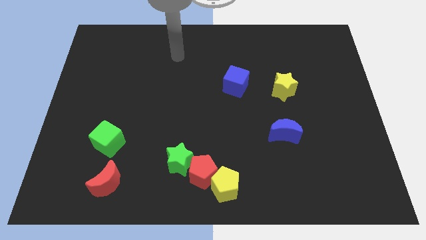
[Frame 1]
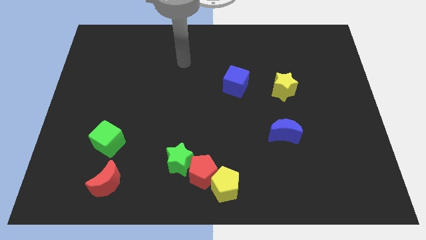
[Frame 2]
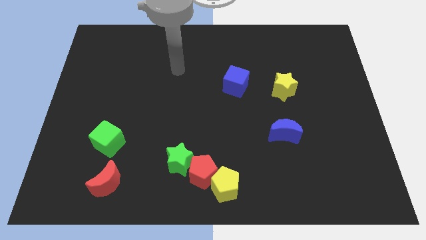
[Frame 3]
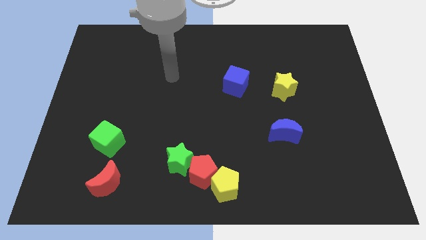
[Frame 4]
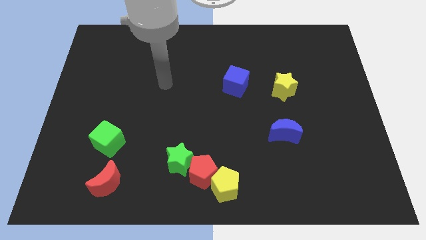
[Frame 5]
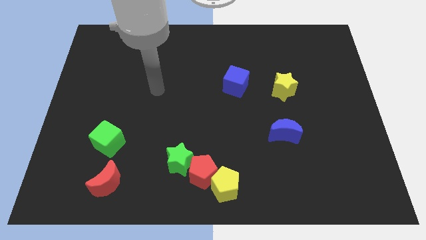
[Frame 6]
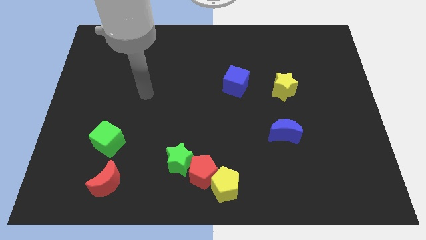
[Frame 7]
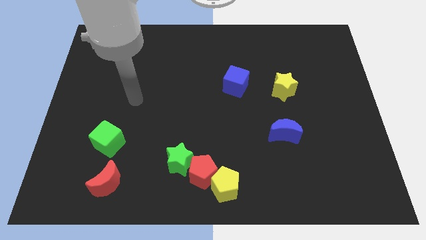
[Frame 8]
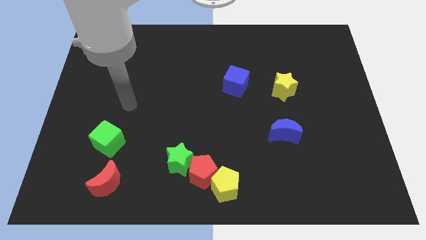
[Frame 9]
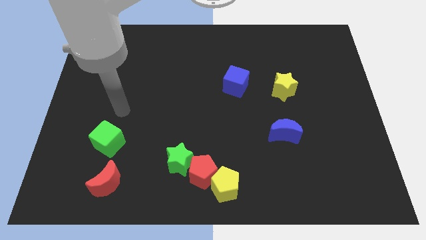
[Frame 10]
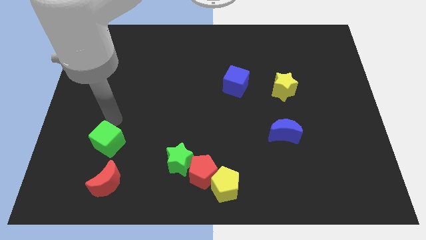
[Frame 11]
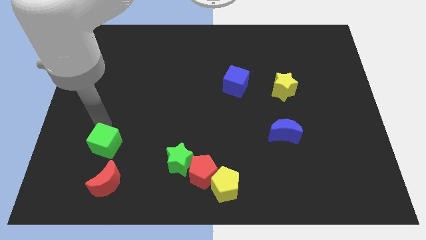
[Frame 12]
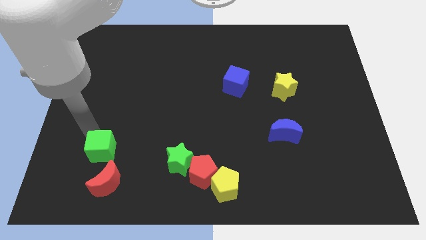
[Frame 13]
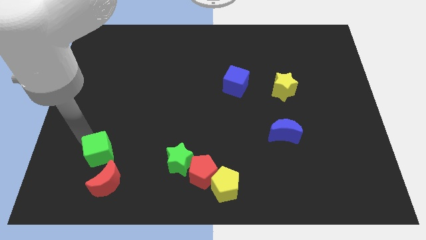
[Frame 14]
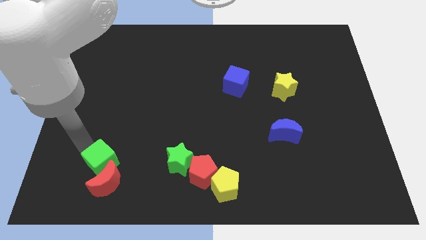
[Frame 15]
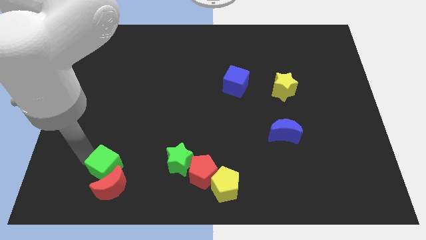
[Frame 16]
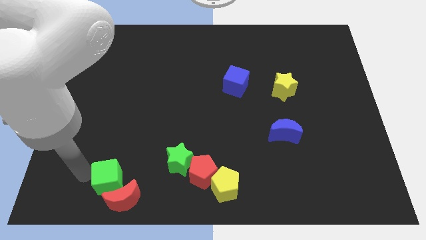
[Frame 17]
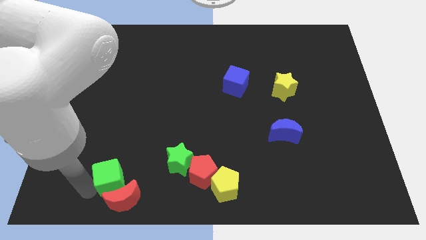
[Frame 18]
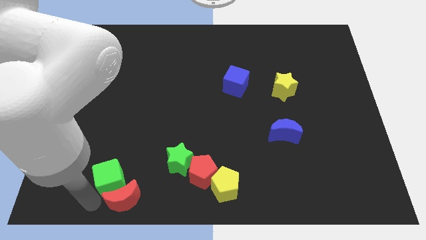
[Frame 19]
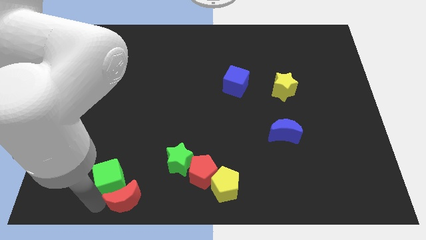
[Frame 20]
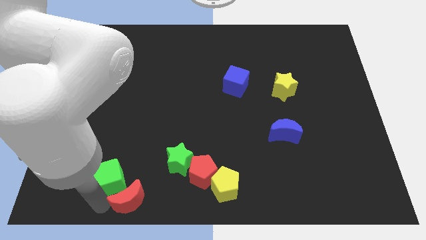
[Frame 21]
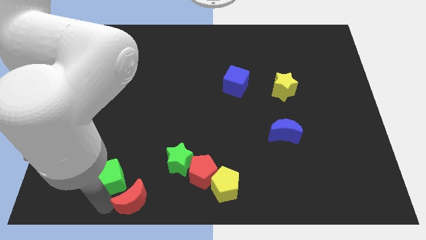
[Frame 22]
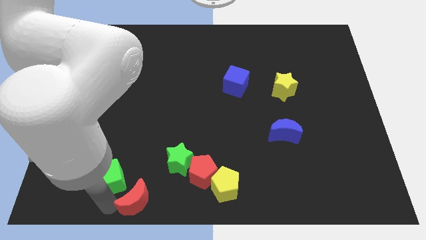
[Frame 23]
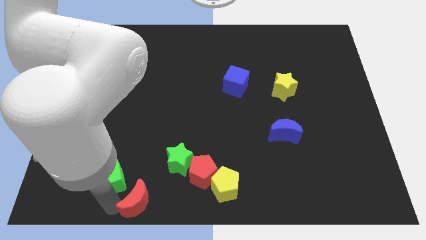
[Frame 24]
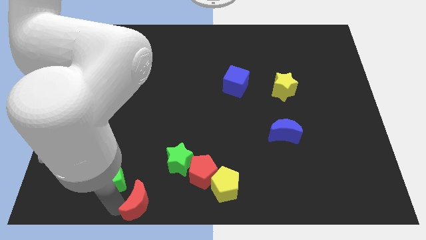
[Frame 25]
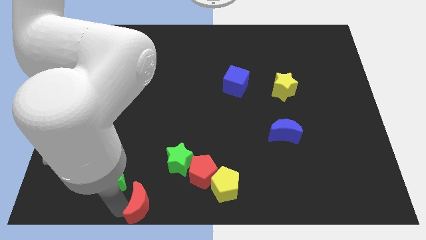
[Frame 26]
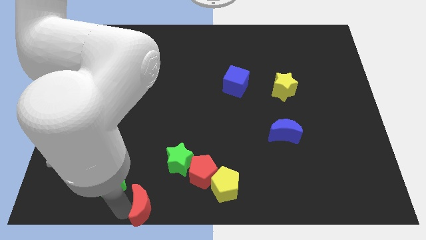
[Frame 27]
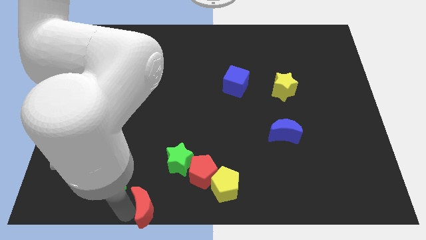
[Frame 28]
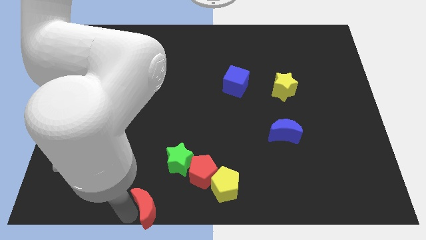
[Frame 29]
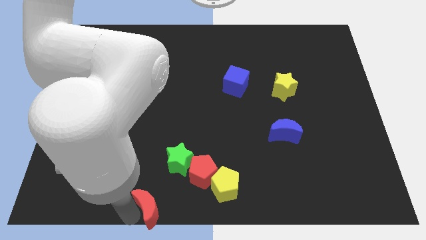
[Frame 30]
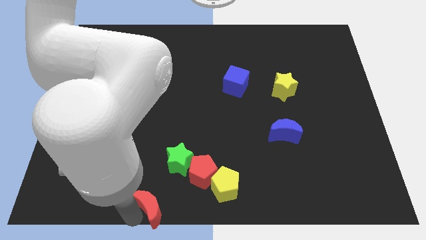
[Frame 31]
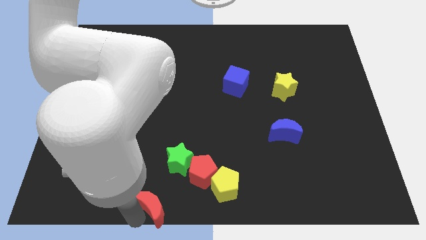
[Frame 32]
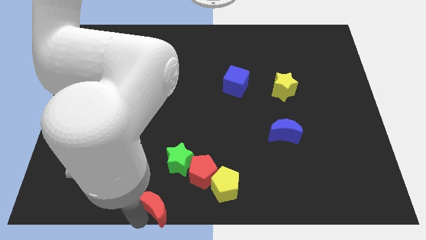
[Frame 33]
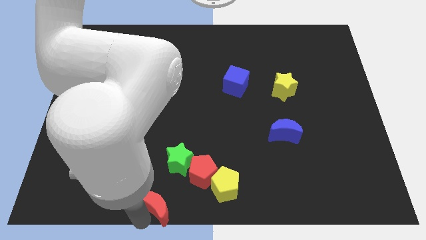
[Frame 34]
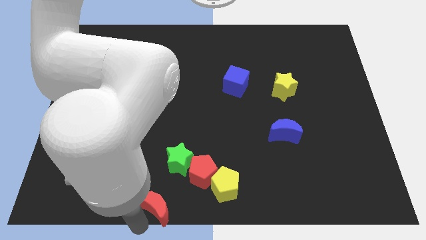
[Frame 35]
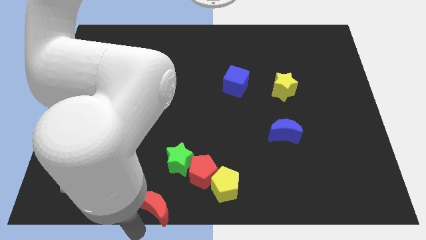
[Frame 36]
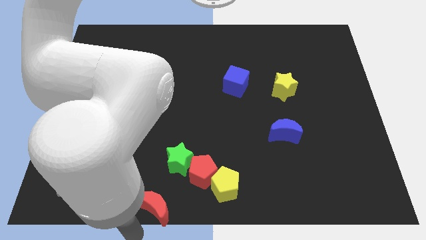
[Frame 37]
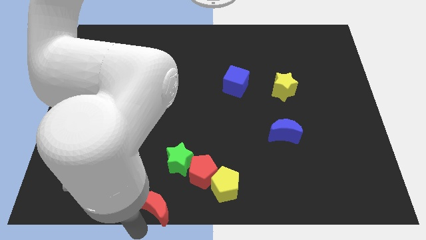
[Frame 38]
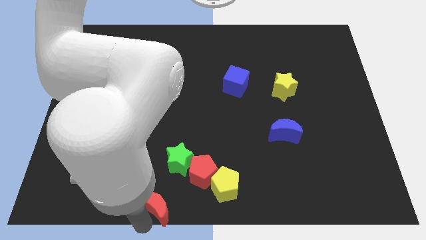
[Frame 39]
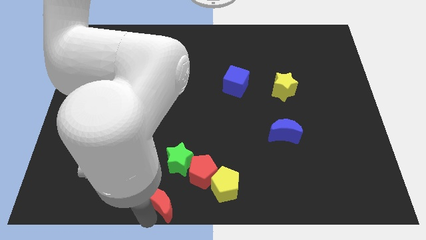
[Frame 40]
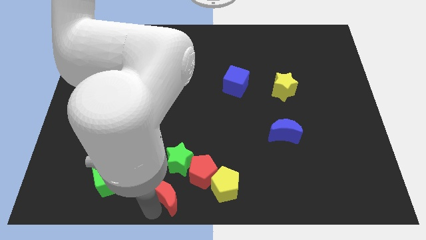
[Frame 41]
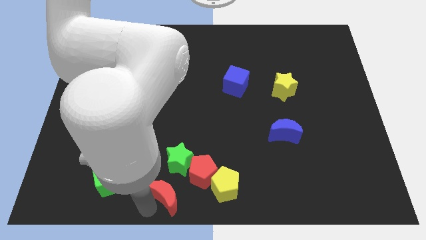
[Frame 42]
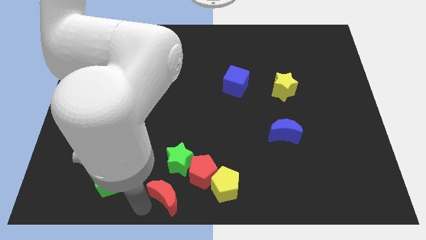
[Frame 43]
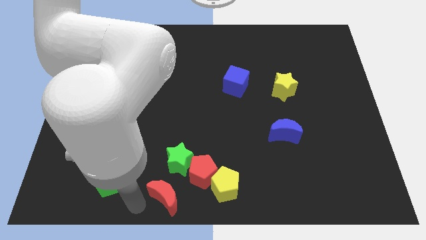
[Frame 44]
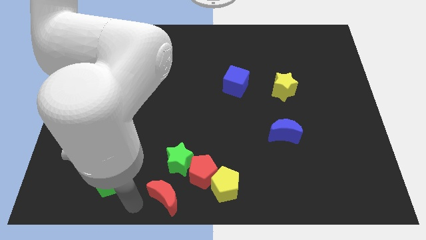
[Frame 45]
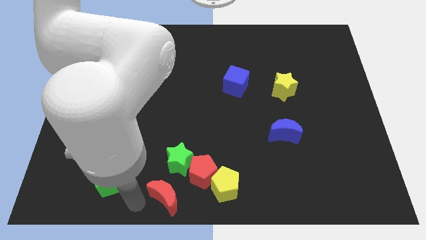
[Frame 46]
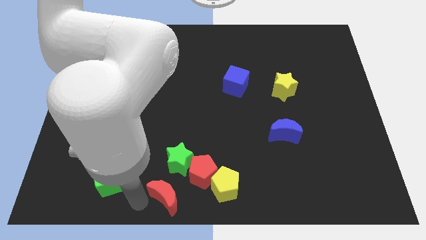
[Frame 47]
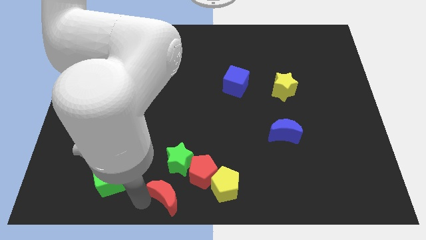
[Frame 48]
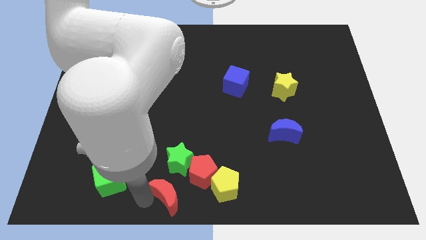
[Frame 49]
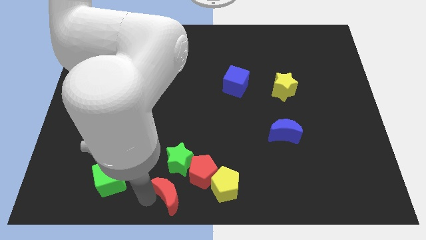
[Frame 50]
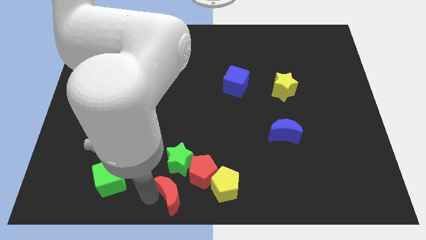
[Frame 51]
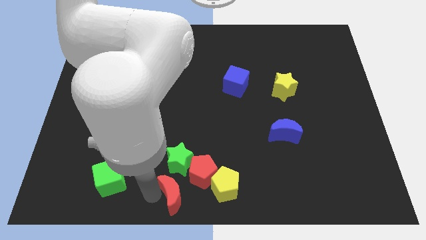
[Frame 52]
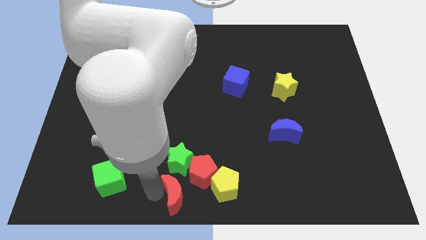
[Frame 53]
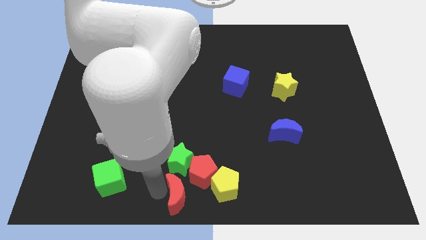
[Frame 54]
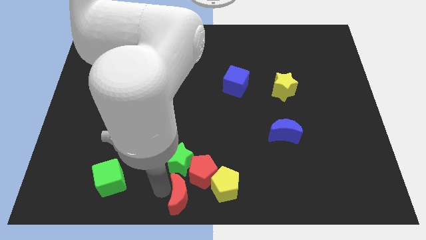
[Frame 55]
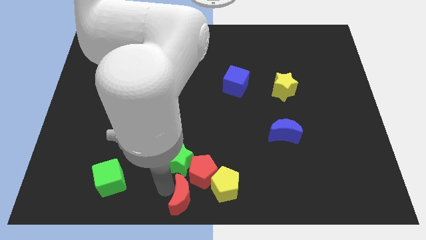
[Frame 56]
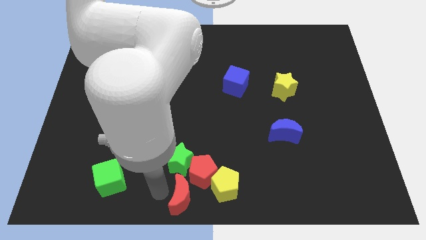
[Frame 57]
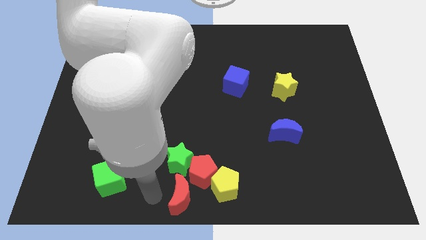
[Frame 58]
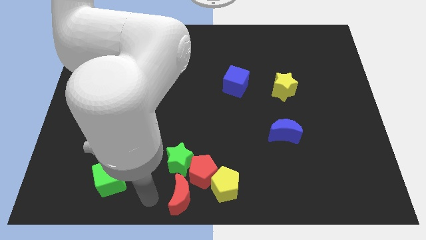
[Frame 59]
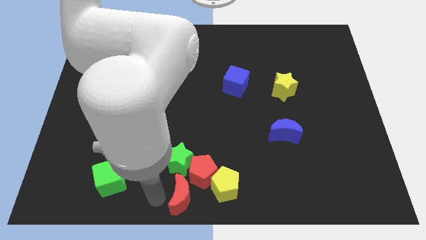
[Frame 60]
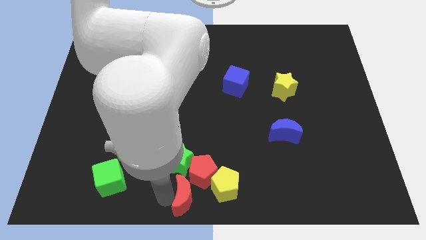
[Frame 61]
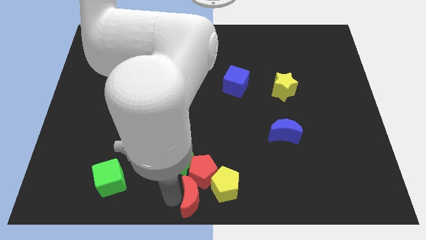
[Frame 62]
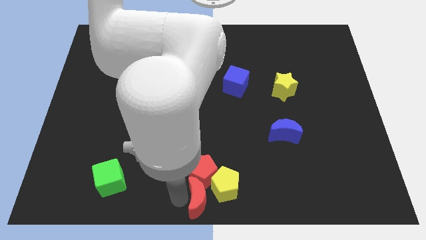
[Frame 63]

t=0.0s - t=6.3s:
slide the red moon next to the yellow pentagon

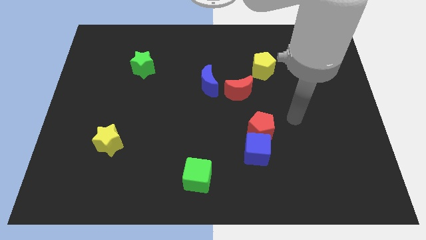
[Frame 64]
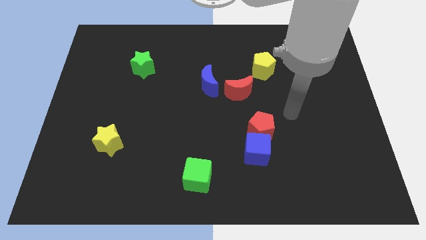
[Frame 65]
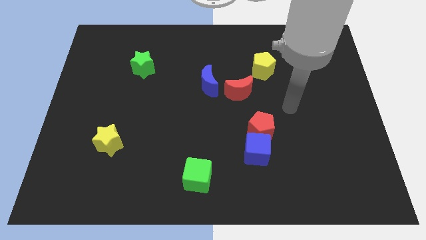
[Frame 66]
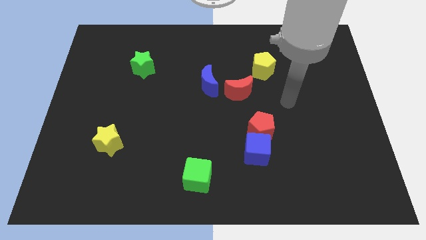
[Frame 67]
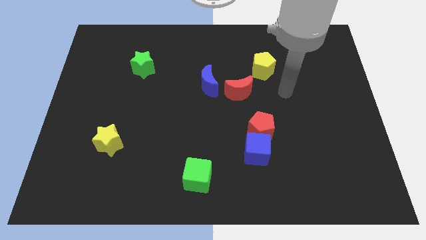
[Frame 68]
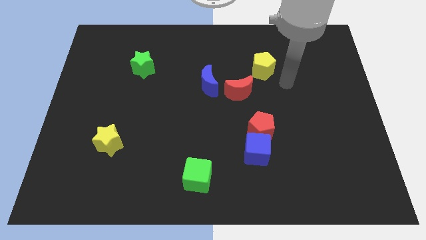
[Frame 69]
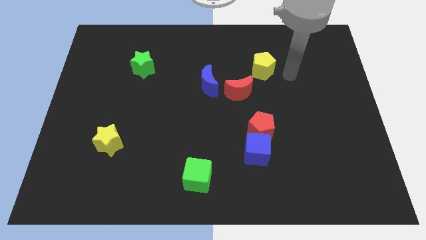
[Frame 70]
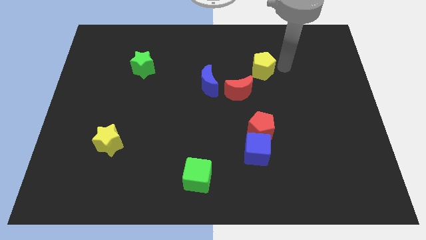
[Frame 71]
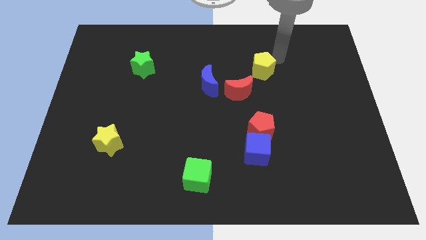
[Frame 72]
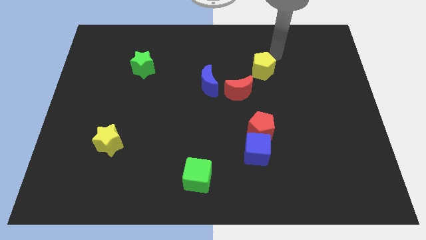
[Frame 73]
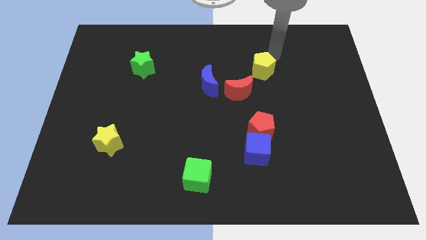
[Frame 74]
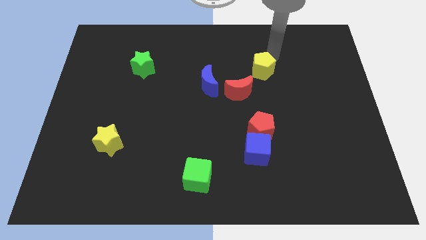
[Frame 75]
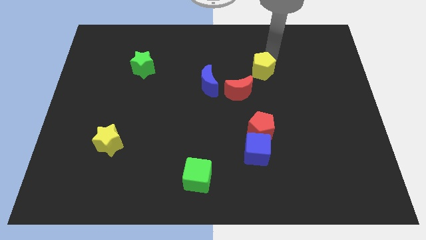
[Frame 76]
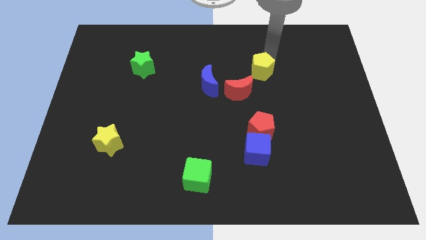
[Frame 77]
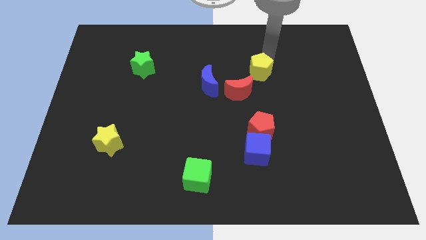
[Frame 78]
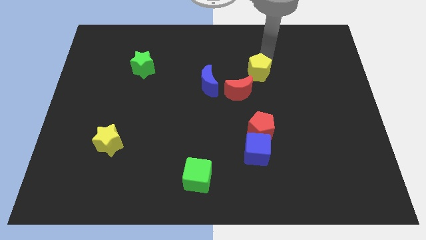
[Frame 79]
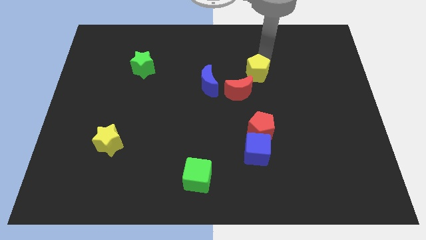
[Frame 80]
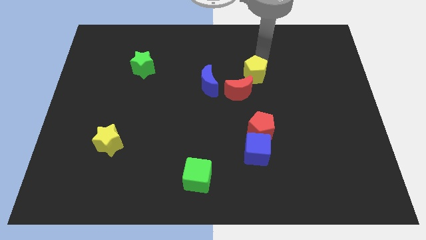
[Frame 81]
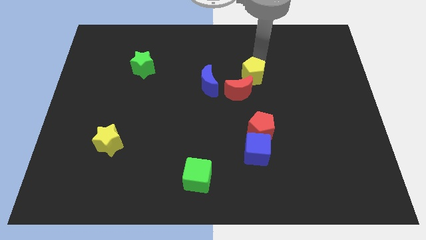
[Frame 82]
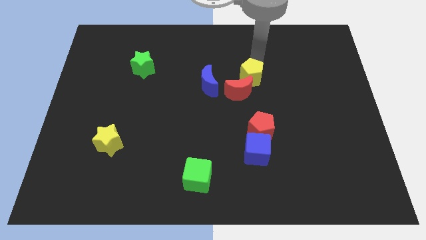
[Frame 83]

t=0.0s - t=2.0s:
slide the yellow pentagon to the red moon
